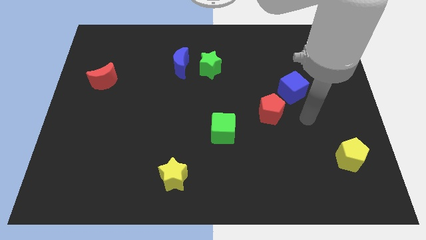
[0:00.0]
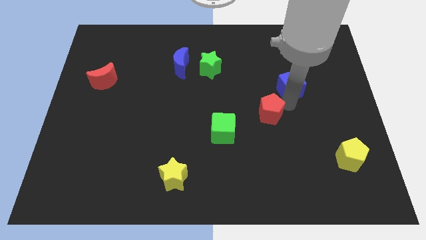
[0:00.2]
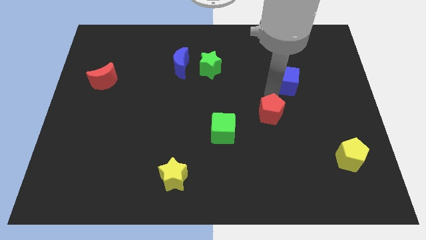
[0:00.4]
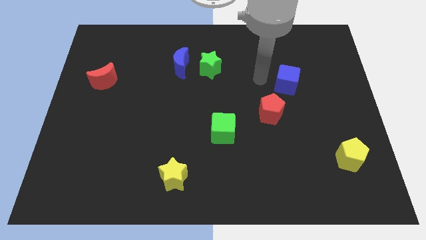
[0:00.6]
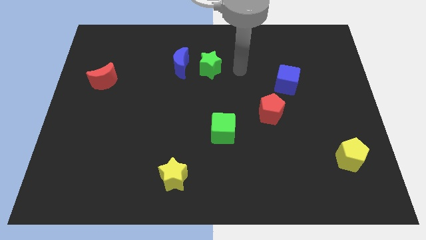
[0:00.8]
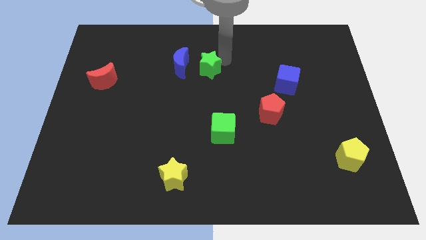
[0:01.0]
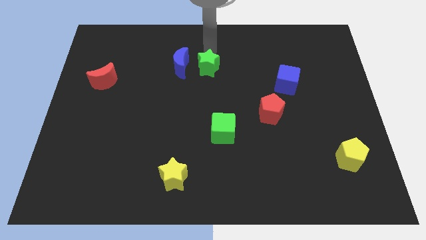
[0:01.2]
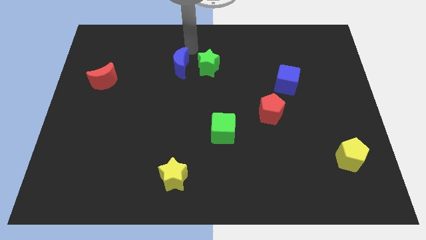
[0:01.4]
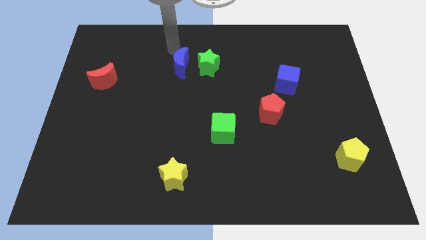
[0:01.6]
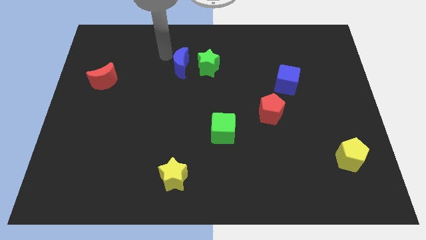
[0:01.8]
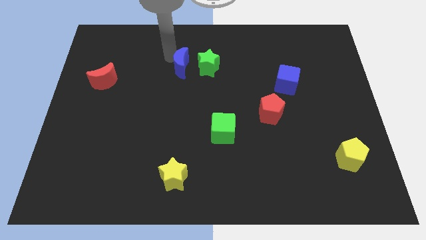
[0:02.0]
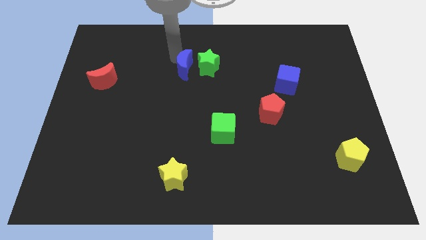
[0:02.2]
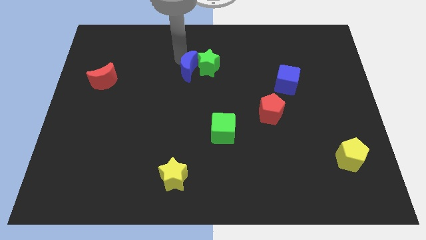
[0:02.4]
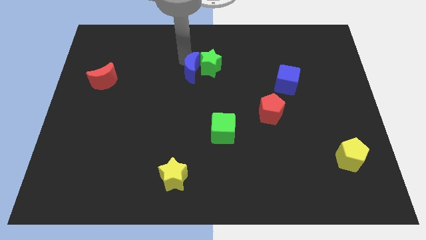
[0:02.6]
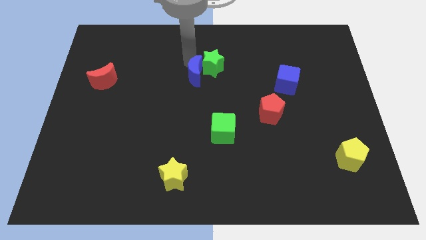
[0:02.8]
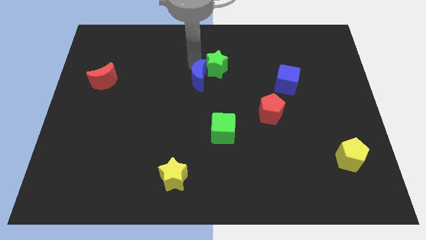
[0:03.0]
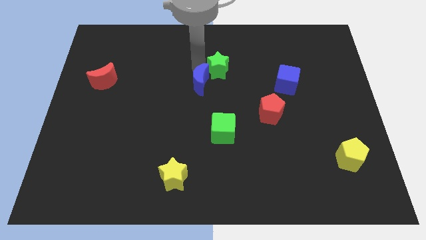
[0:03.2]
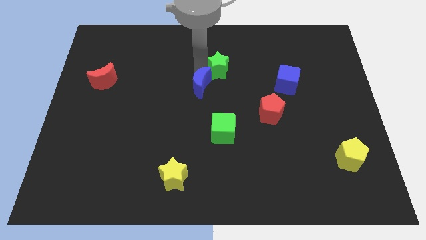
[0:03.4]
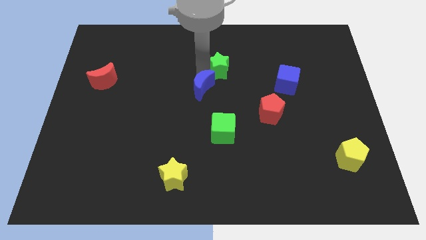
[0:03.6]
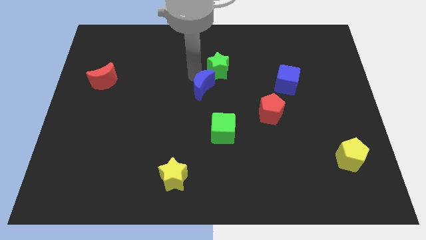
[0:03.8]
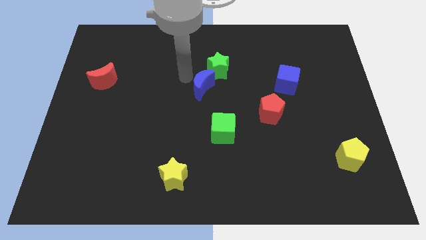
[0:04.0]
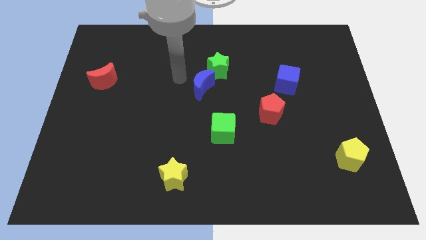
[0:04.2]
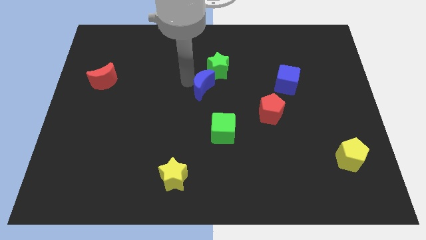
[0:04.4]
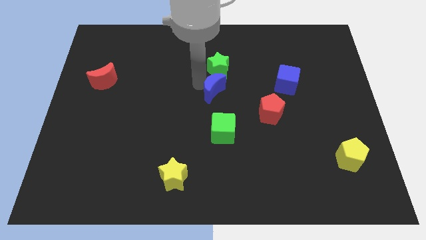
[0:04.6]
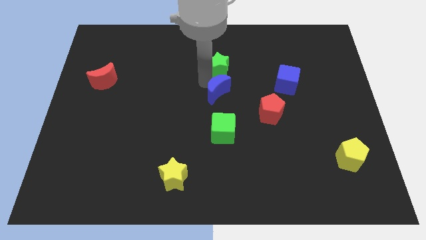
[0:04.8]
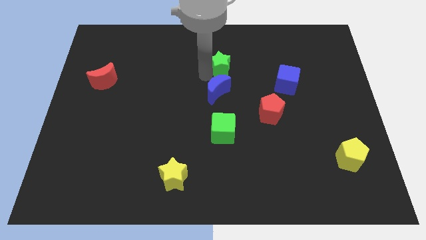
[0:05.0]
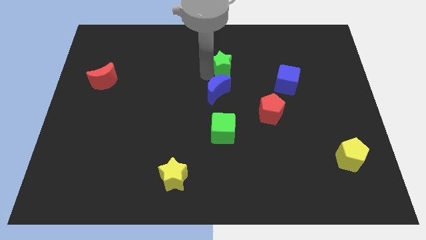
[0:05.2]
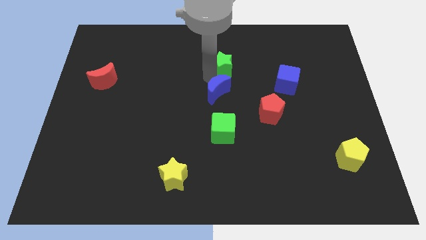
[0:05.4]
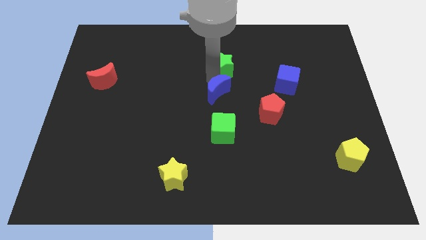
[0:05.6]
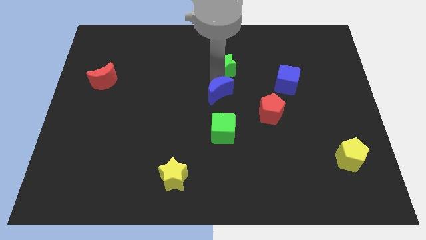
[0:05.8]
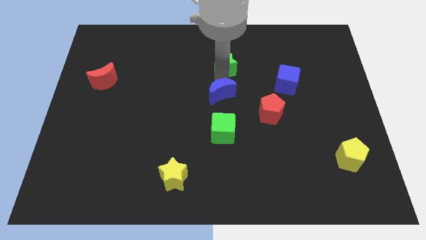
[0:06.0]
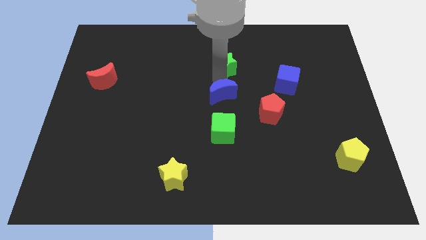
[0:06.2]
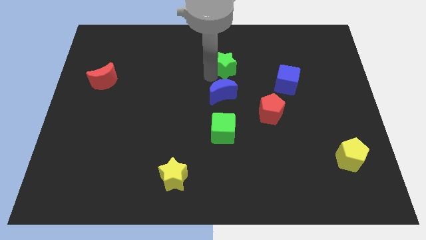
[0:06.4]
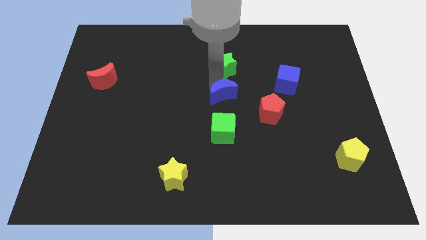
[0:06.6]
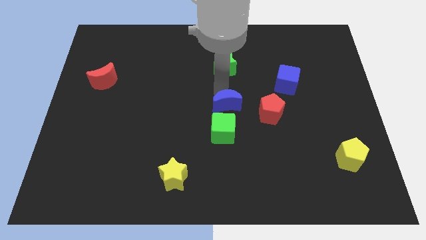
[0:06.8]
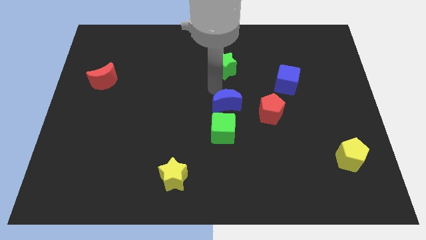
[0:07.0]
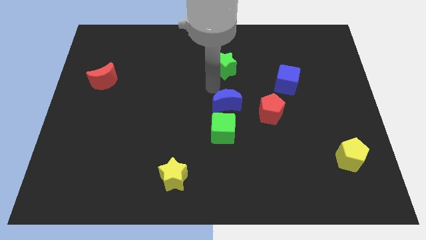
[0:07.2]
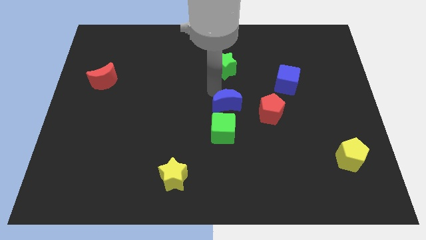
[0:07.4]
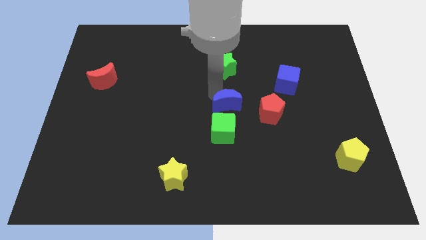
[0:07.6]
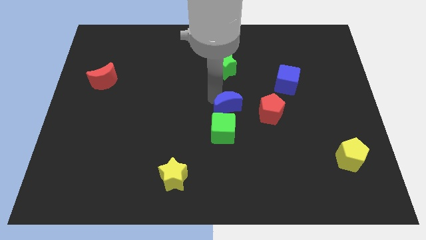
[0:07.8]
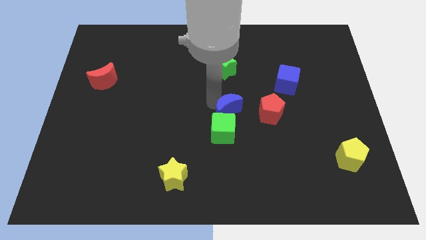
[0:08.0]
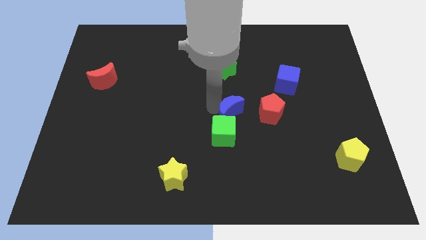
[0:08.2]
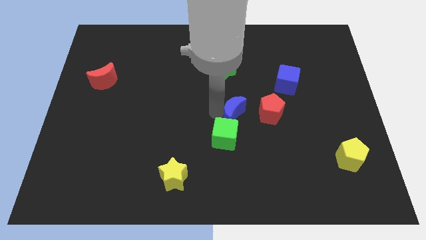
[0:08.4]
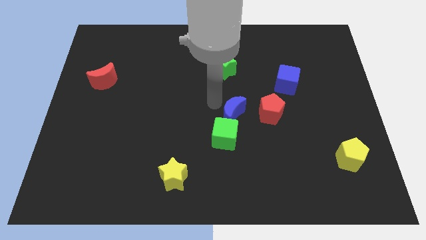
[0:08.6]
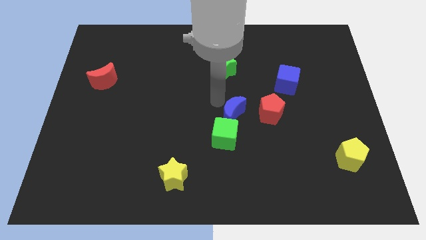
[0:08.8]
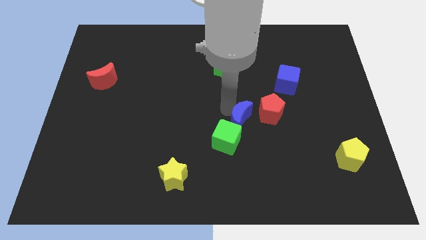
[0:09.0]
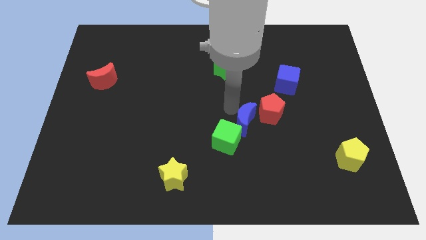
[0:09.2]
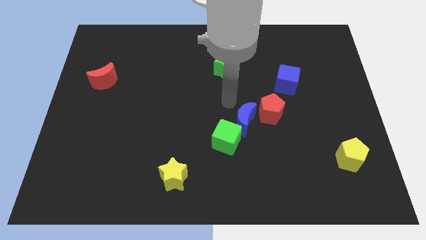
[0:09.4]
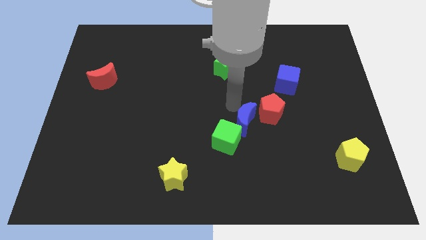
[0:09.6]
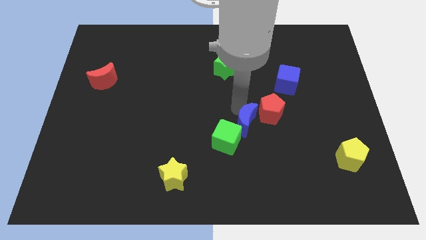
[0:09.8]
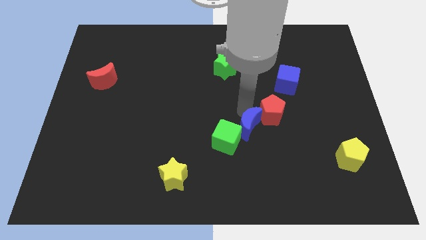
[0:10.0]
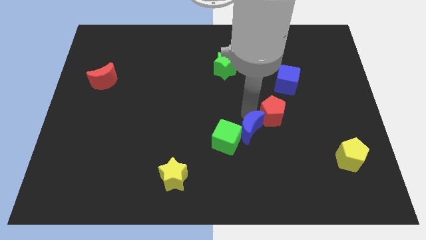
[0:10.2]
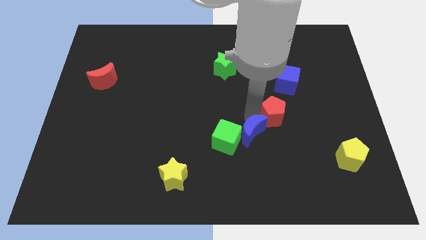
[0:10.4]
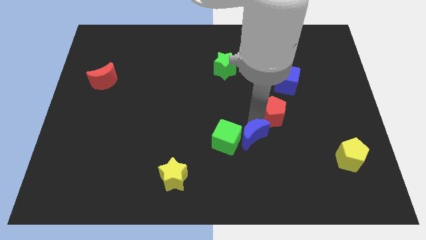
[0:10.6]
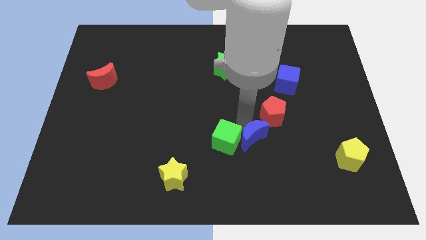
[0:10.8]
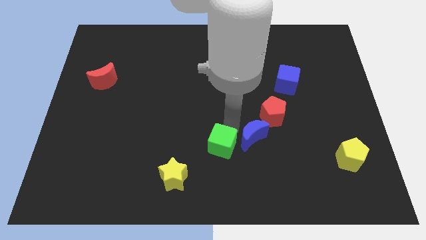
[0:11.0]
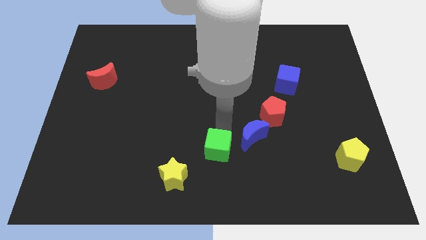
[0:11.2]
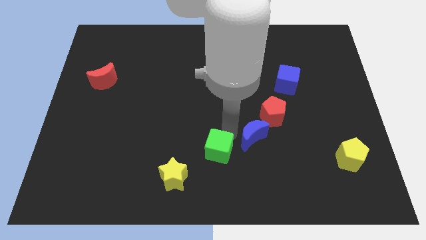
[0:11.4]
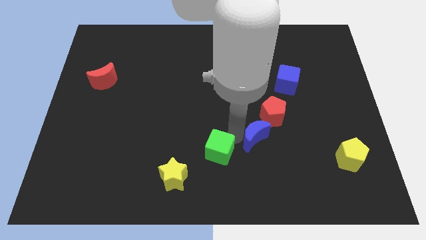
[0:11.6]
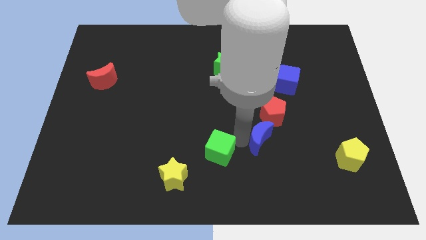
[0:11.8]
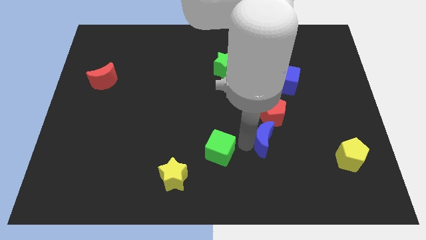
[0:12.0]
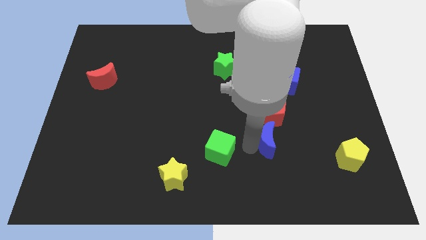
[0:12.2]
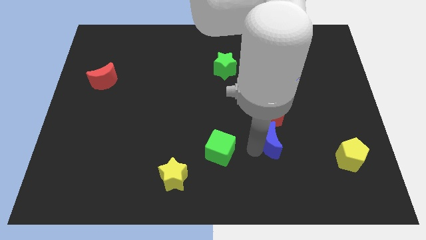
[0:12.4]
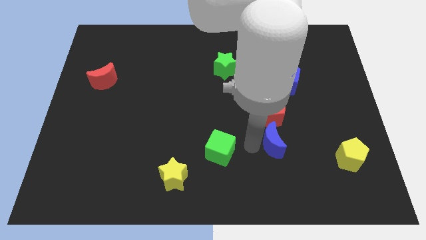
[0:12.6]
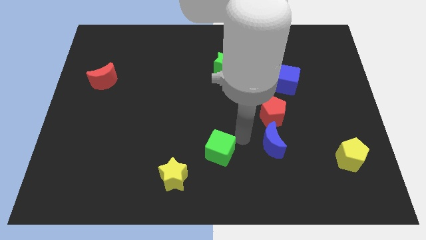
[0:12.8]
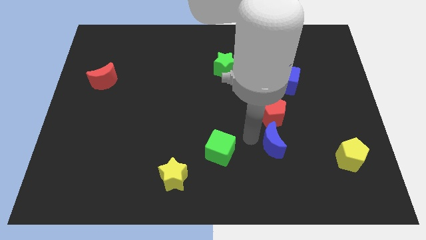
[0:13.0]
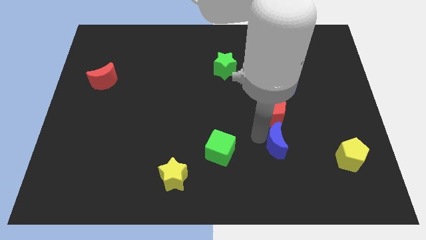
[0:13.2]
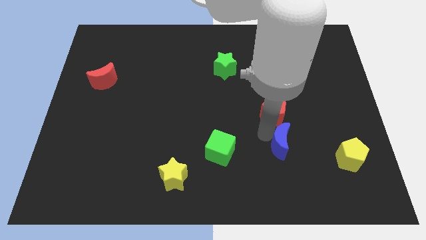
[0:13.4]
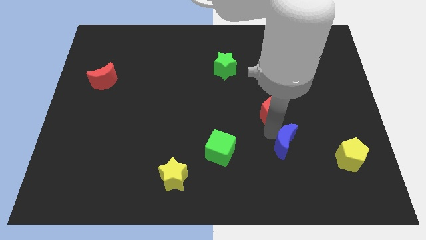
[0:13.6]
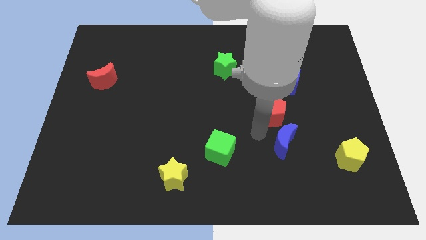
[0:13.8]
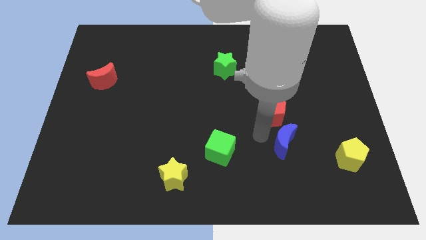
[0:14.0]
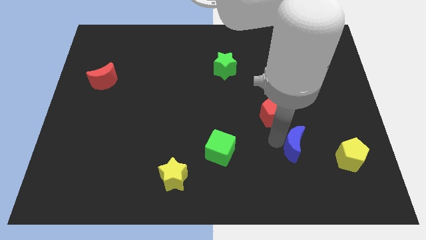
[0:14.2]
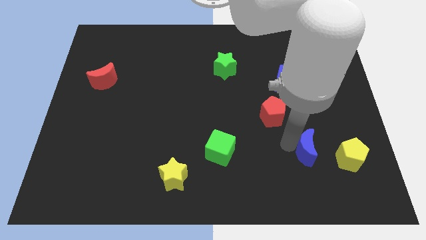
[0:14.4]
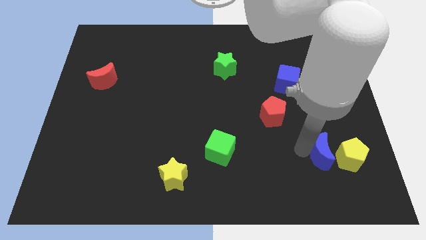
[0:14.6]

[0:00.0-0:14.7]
push the blue moon next to the yellow pentagon

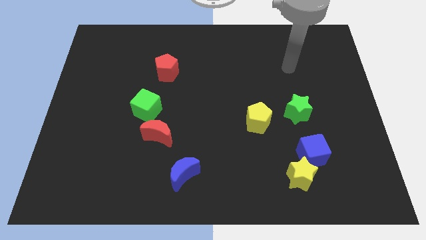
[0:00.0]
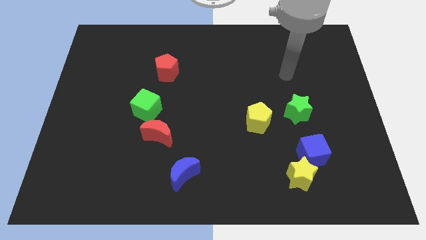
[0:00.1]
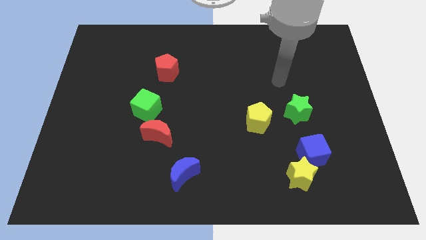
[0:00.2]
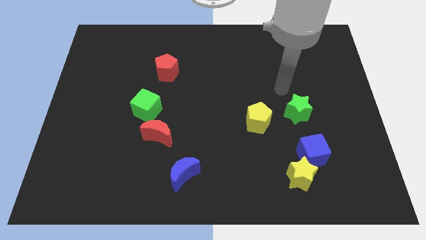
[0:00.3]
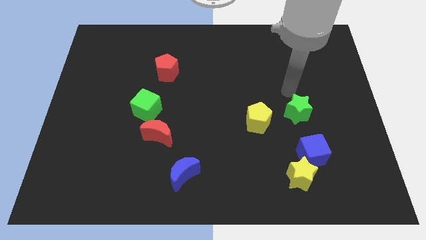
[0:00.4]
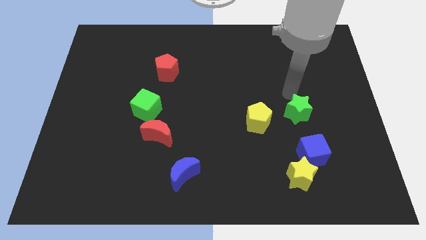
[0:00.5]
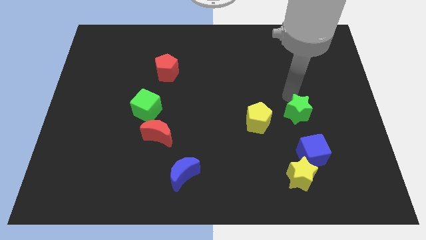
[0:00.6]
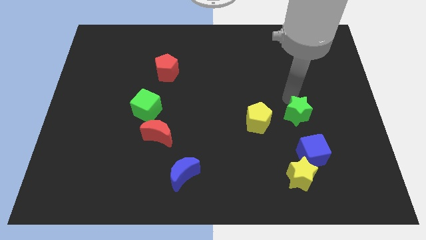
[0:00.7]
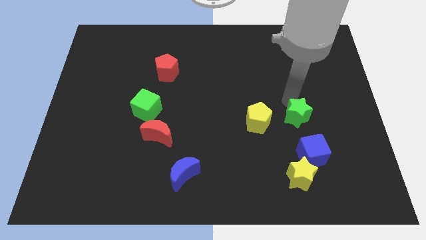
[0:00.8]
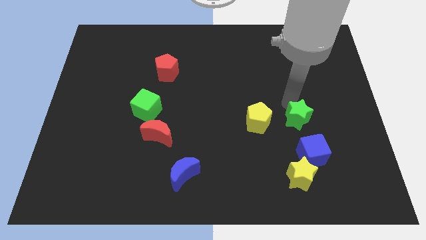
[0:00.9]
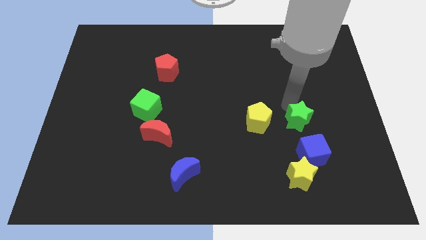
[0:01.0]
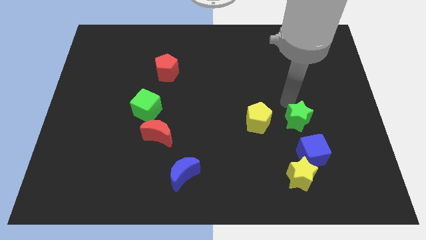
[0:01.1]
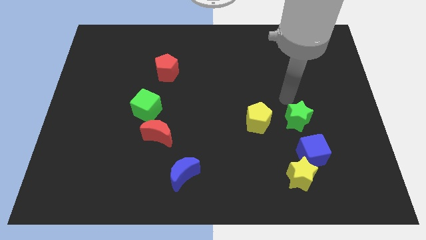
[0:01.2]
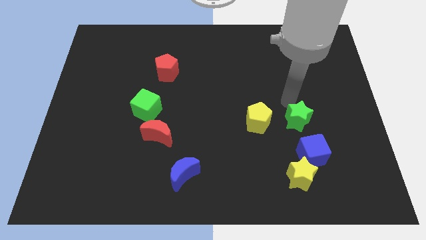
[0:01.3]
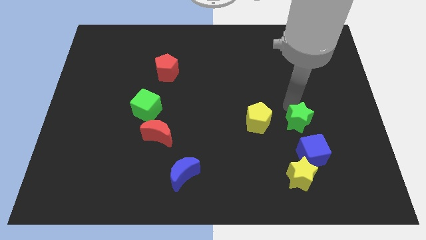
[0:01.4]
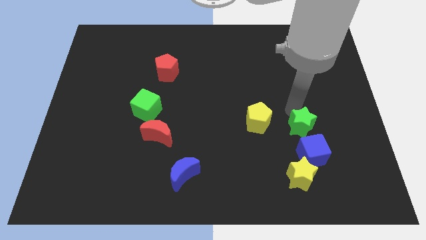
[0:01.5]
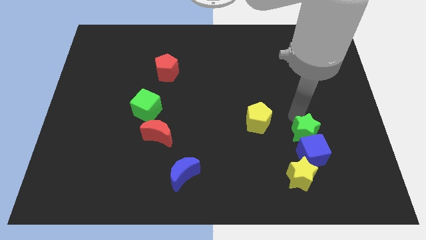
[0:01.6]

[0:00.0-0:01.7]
push the green star towards the blue cube
